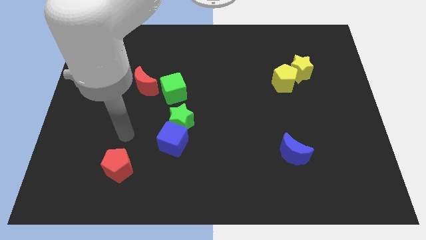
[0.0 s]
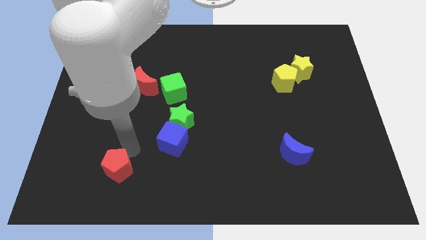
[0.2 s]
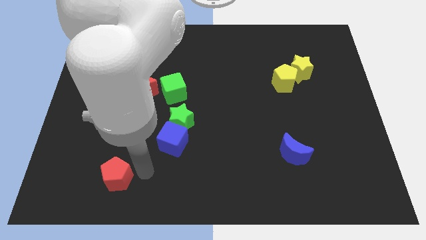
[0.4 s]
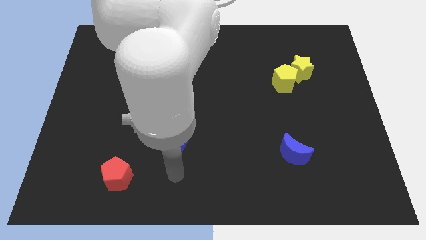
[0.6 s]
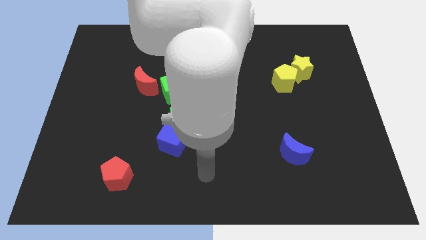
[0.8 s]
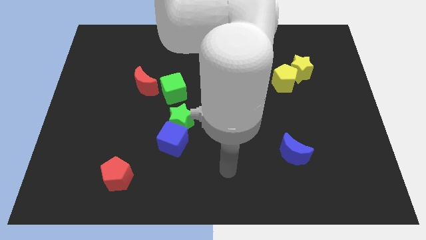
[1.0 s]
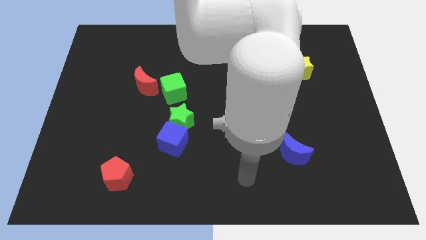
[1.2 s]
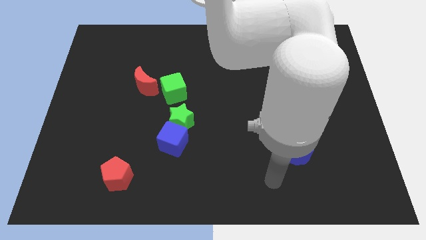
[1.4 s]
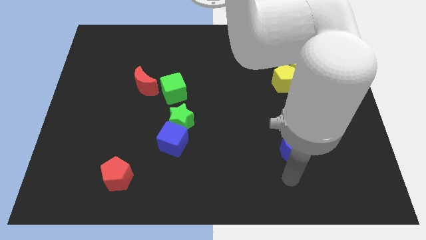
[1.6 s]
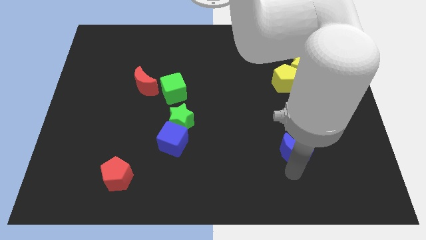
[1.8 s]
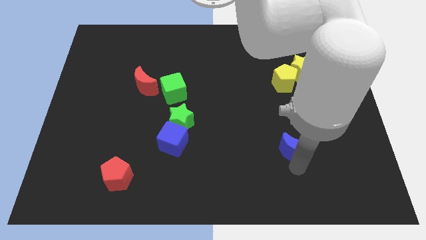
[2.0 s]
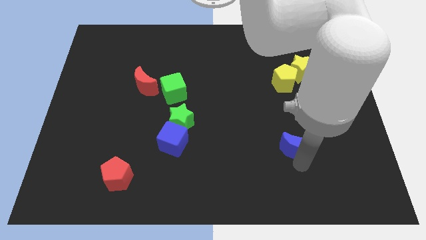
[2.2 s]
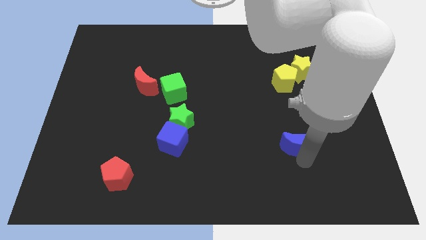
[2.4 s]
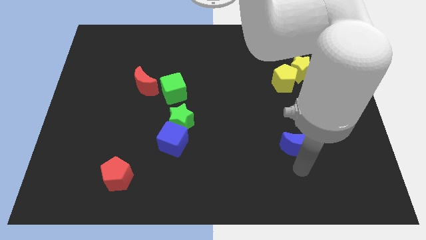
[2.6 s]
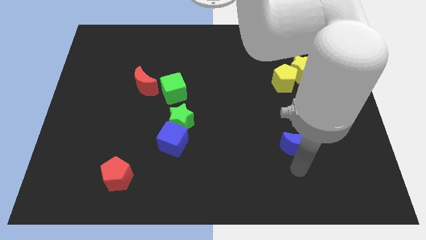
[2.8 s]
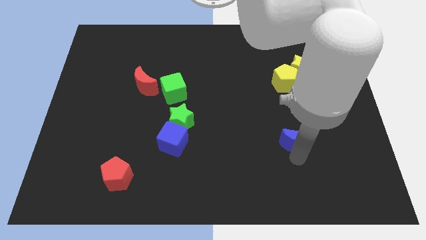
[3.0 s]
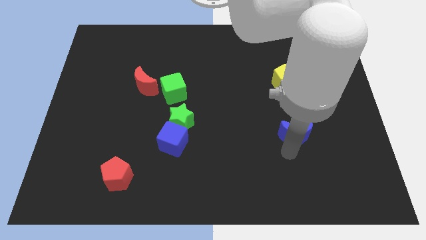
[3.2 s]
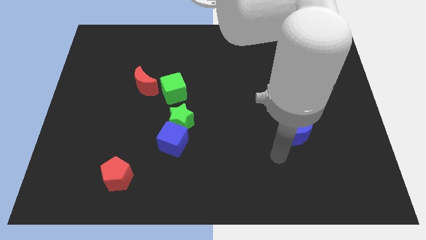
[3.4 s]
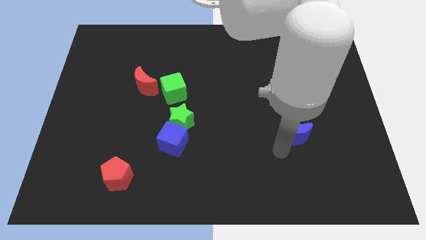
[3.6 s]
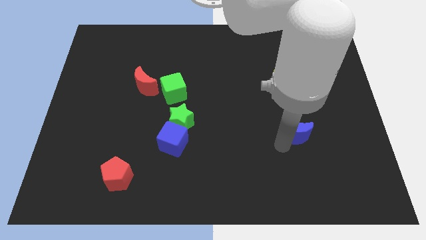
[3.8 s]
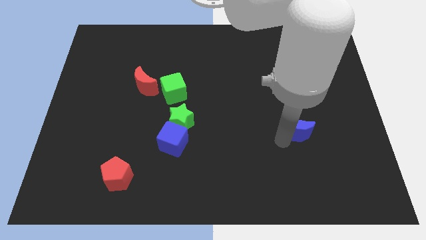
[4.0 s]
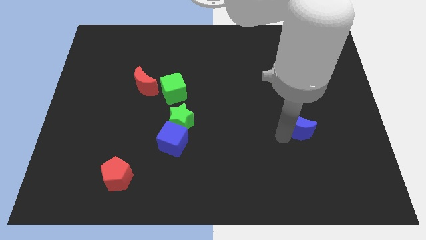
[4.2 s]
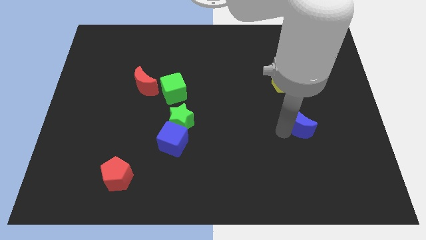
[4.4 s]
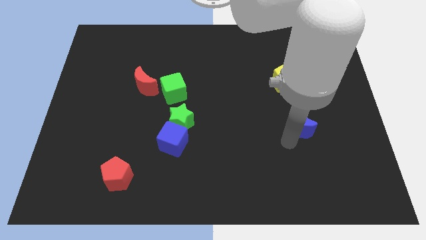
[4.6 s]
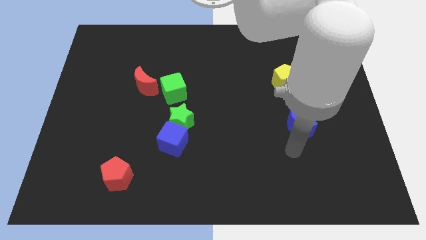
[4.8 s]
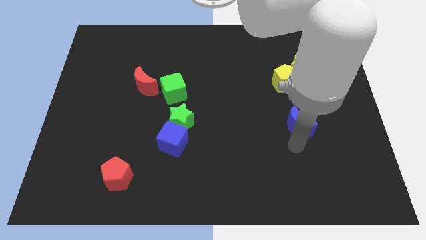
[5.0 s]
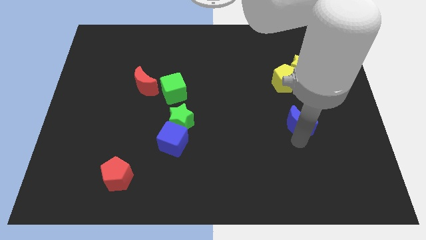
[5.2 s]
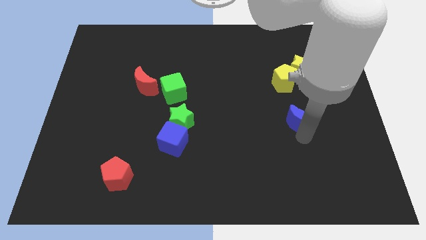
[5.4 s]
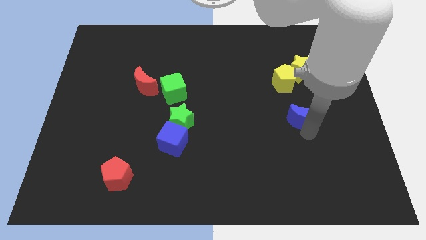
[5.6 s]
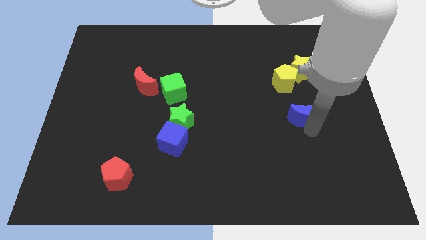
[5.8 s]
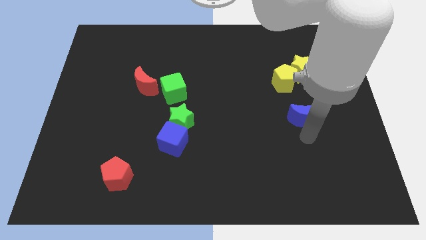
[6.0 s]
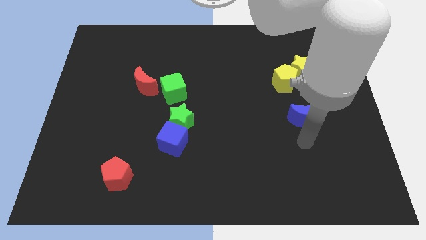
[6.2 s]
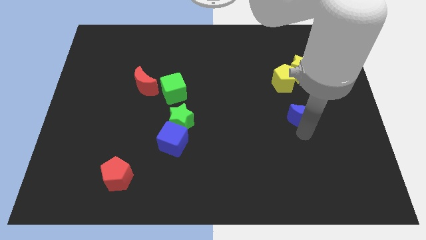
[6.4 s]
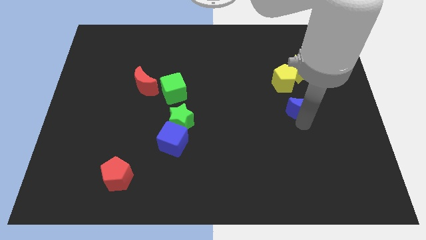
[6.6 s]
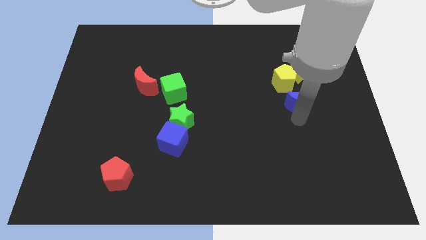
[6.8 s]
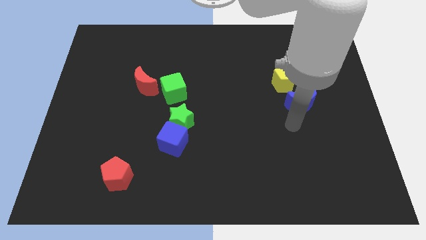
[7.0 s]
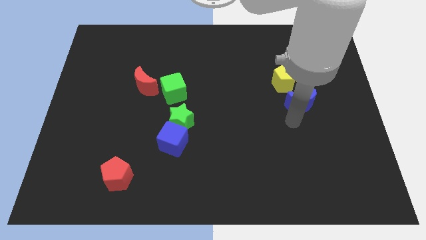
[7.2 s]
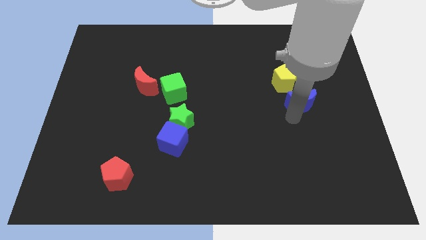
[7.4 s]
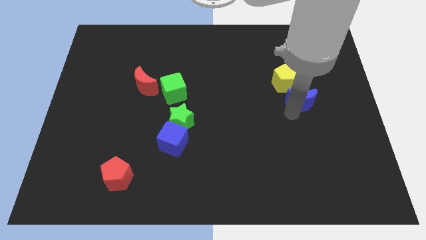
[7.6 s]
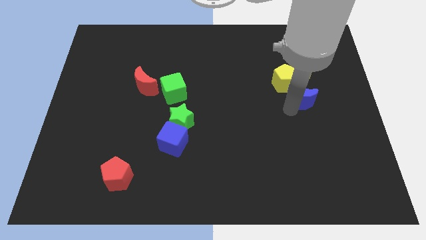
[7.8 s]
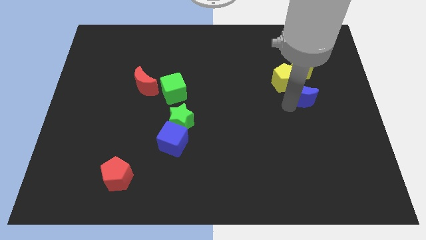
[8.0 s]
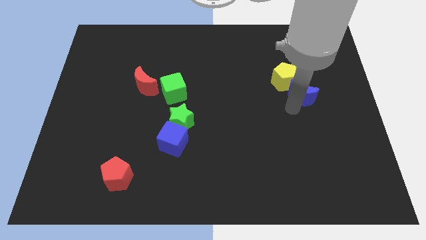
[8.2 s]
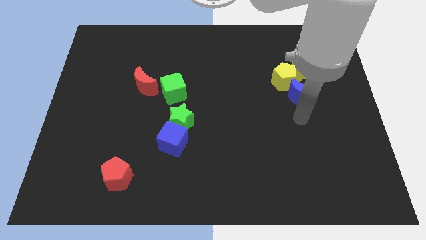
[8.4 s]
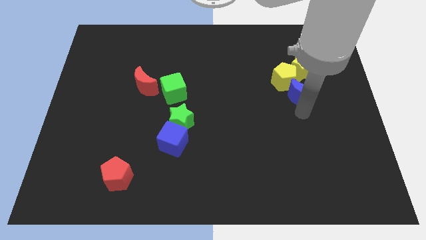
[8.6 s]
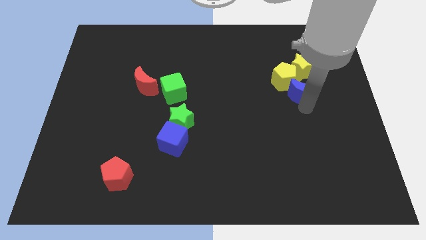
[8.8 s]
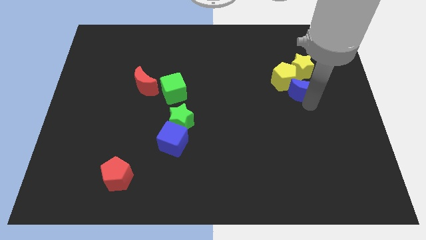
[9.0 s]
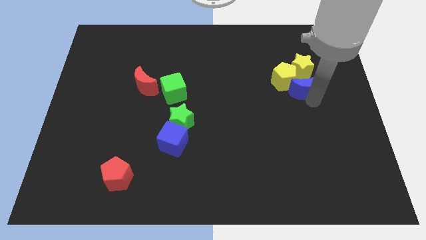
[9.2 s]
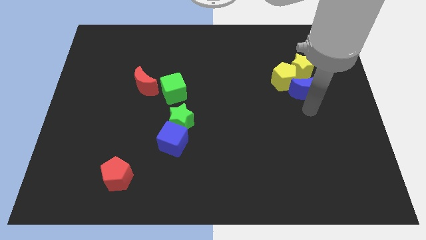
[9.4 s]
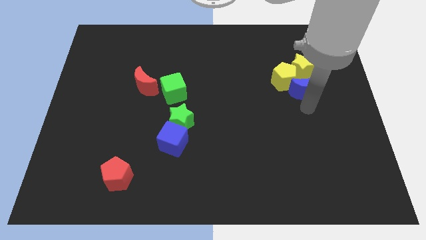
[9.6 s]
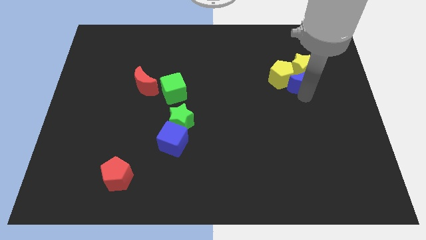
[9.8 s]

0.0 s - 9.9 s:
move the blue moon next to the yellow star

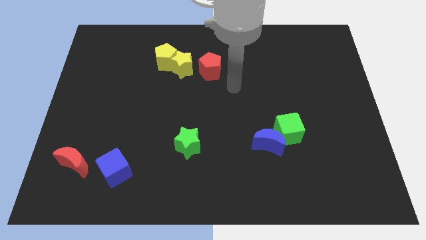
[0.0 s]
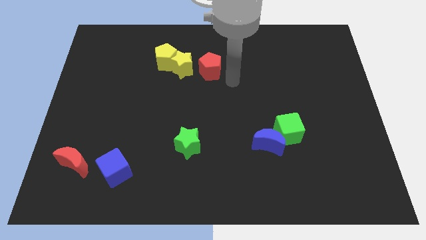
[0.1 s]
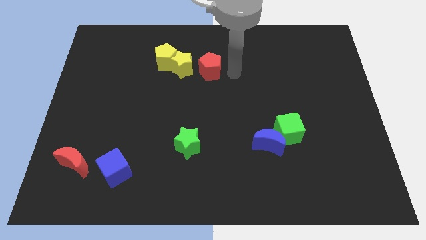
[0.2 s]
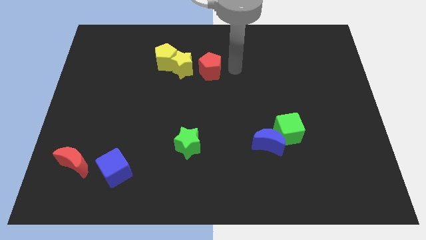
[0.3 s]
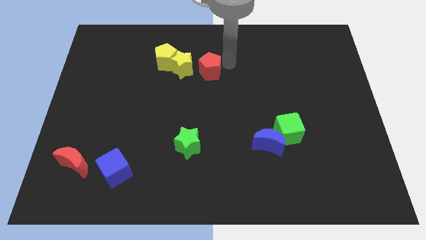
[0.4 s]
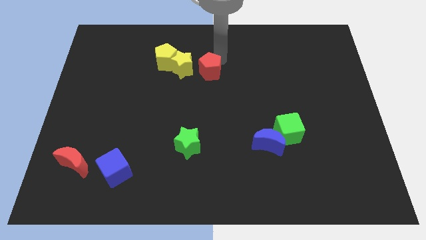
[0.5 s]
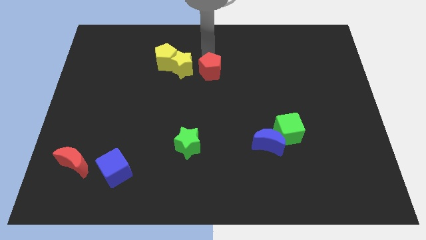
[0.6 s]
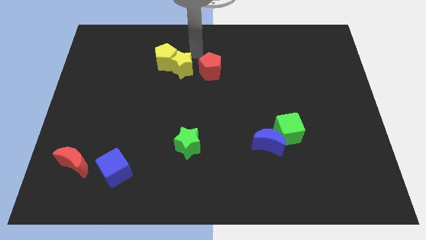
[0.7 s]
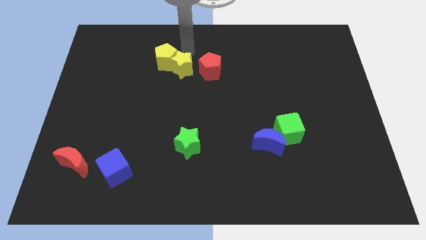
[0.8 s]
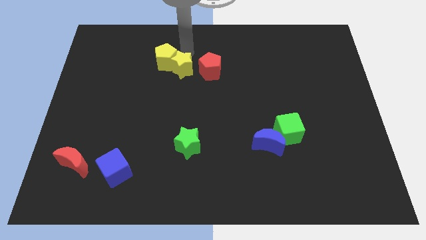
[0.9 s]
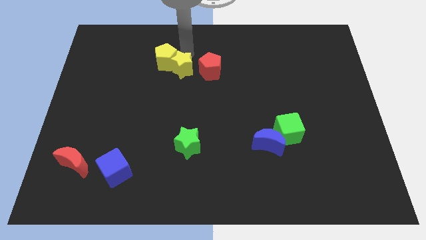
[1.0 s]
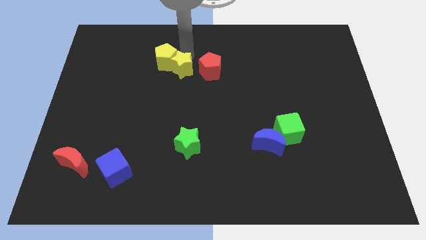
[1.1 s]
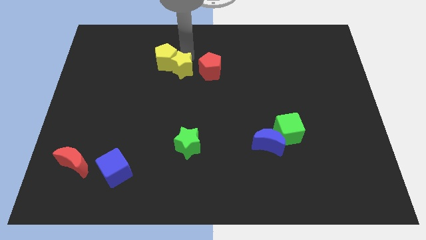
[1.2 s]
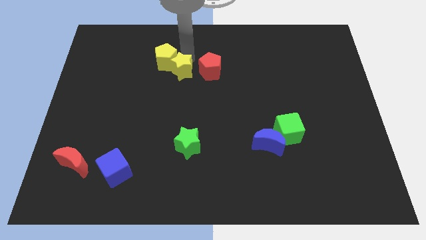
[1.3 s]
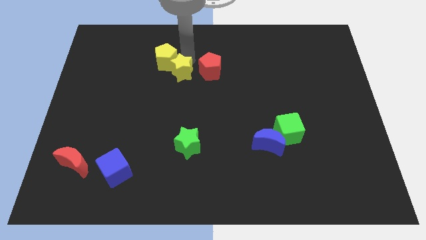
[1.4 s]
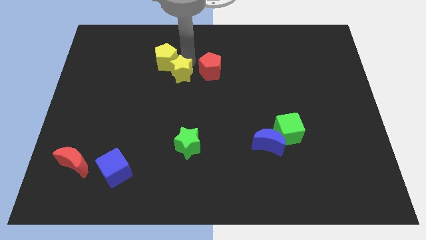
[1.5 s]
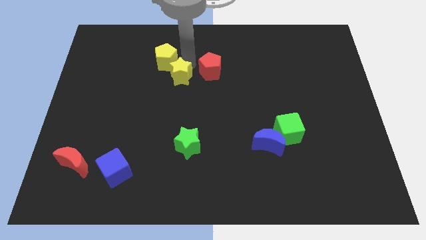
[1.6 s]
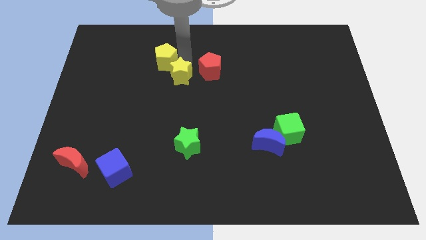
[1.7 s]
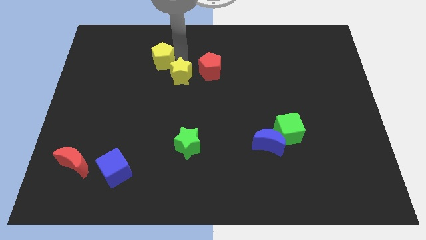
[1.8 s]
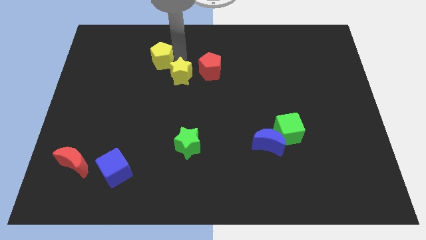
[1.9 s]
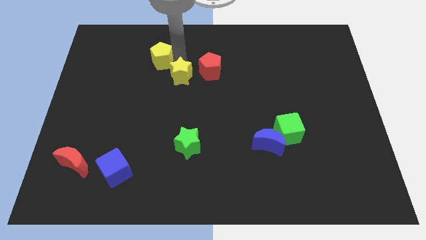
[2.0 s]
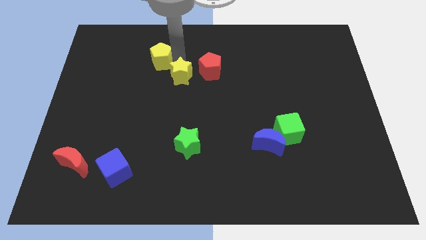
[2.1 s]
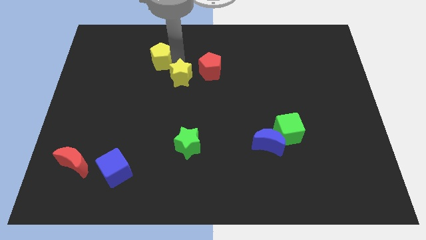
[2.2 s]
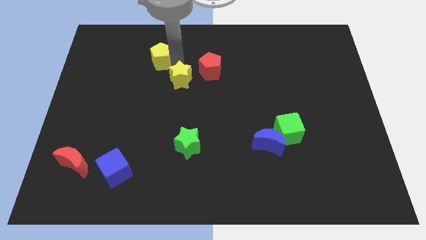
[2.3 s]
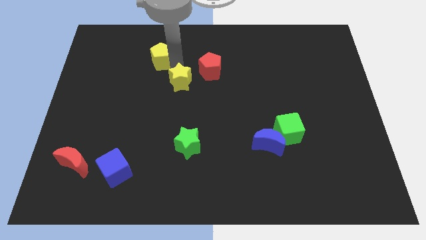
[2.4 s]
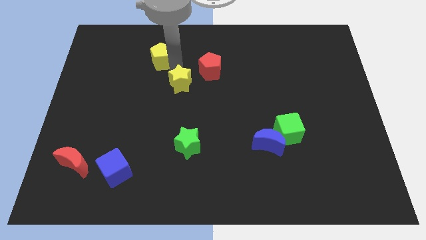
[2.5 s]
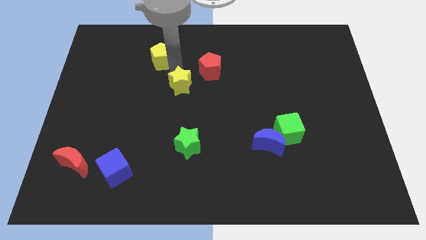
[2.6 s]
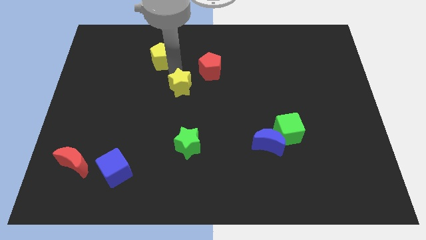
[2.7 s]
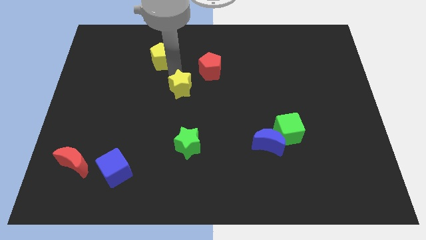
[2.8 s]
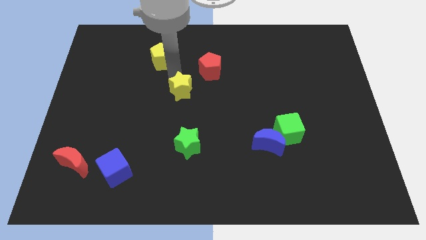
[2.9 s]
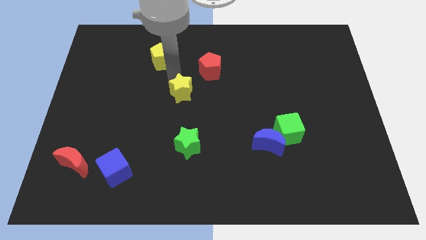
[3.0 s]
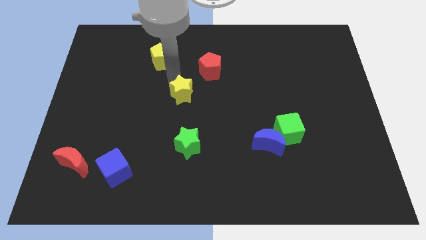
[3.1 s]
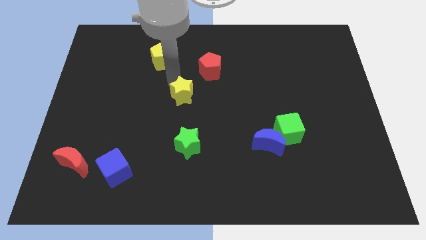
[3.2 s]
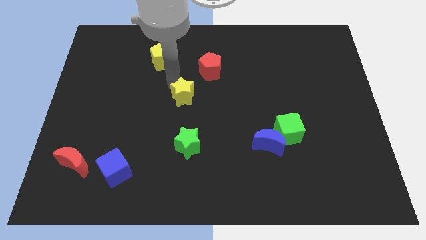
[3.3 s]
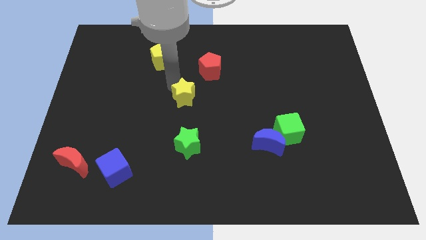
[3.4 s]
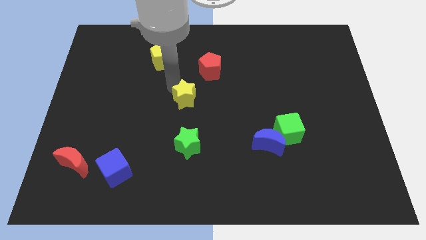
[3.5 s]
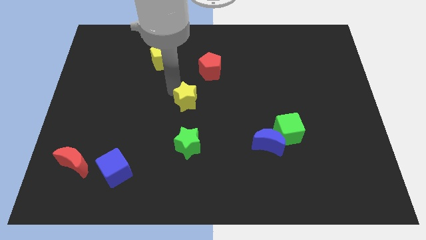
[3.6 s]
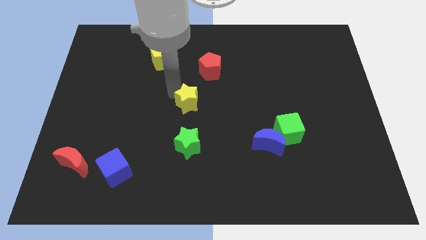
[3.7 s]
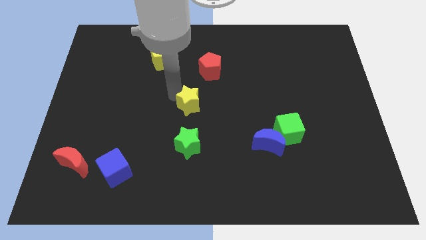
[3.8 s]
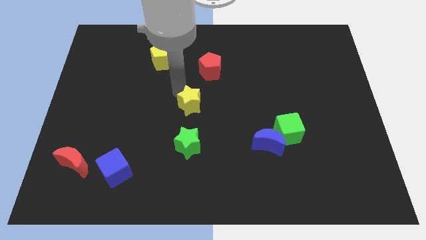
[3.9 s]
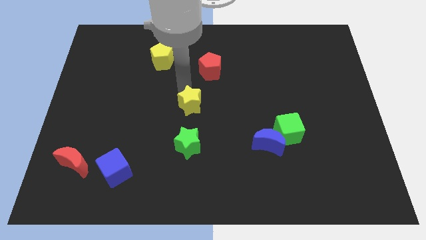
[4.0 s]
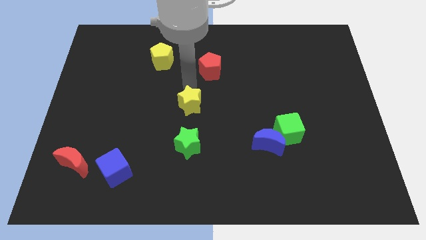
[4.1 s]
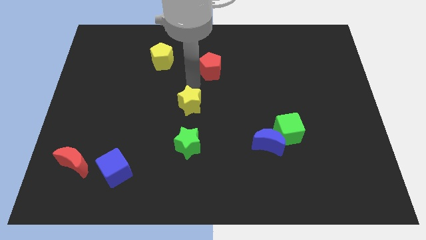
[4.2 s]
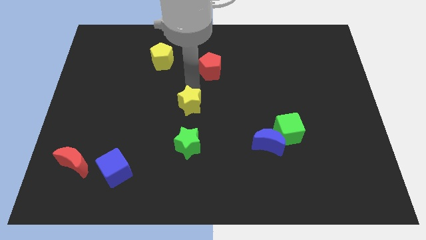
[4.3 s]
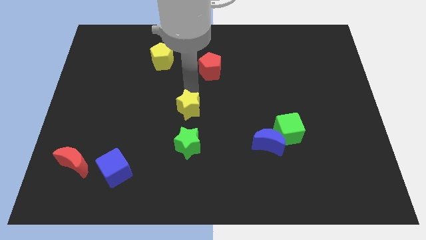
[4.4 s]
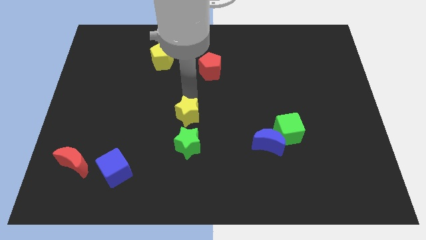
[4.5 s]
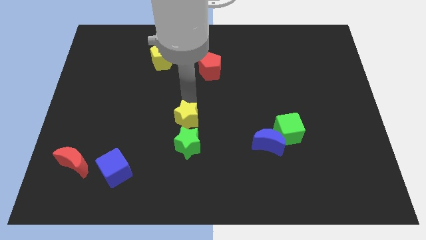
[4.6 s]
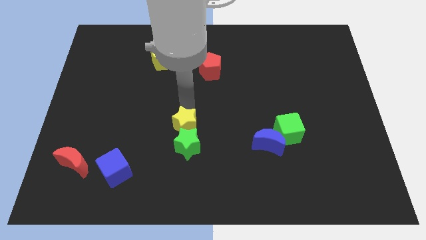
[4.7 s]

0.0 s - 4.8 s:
put the yellow star next to the green star
